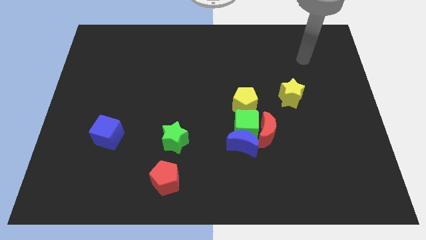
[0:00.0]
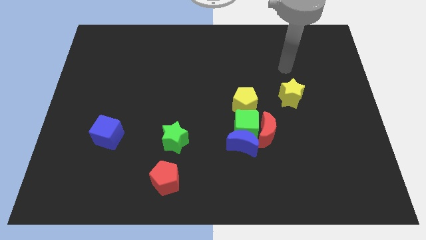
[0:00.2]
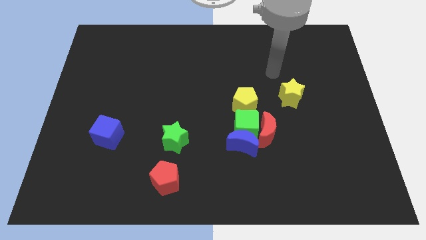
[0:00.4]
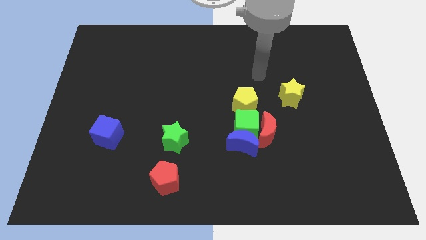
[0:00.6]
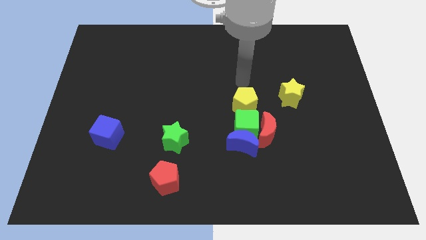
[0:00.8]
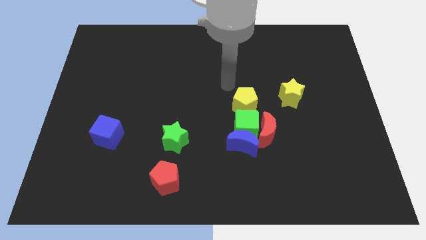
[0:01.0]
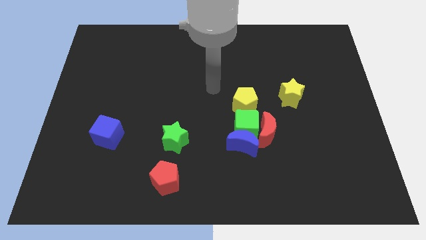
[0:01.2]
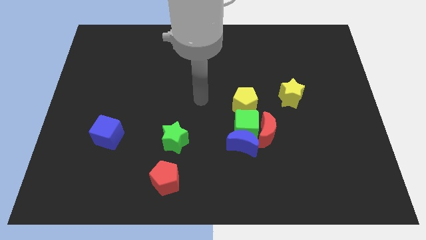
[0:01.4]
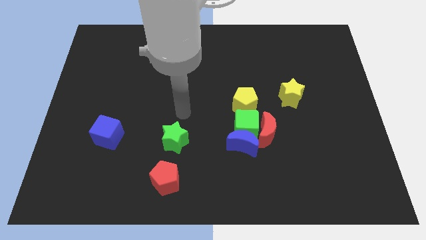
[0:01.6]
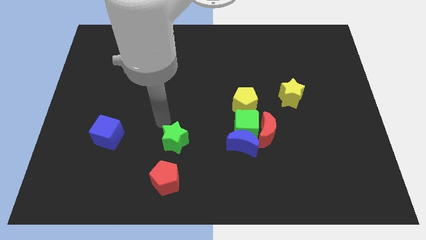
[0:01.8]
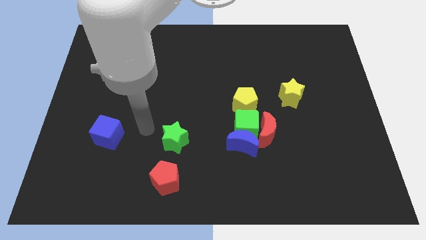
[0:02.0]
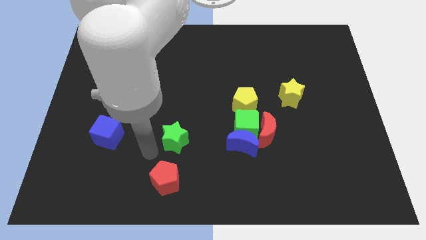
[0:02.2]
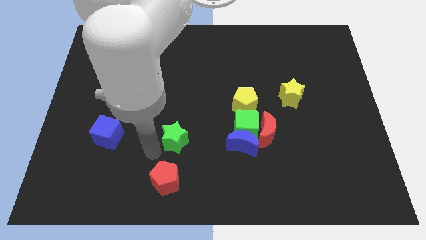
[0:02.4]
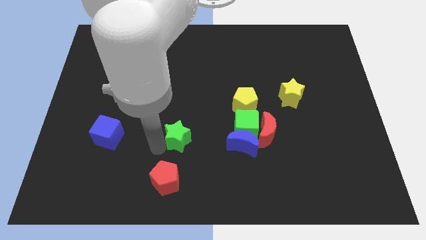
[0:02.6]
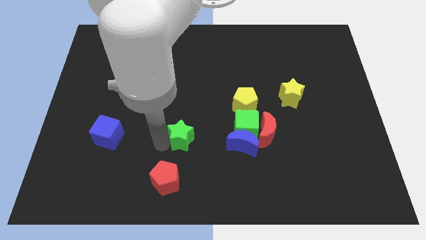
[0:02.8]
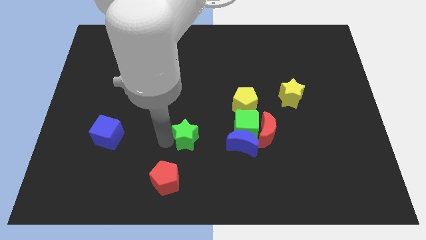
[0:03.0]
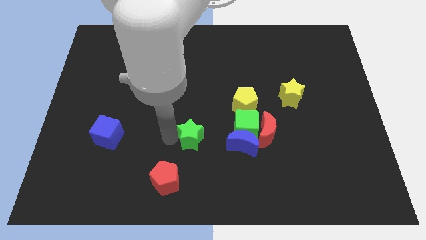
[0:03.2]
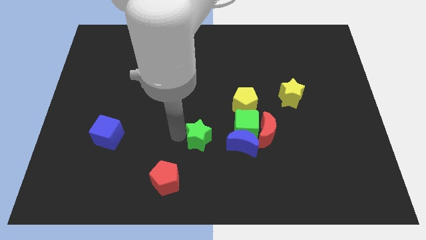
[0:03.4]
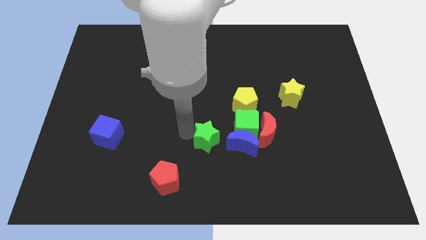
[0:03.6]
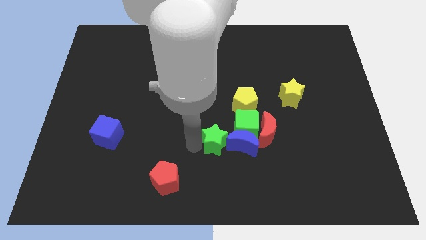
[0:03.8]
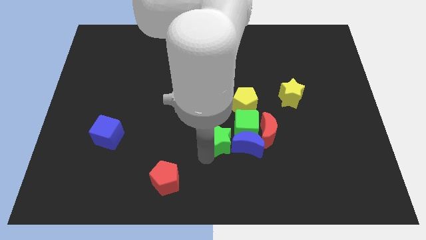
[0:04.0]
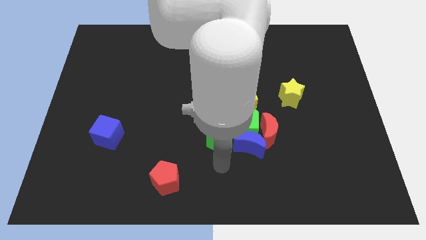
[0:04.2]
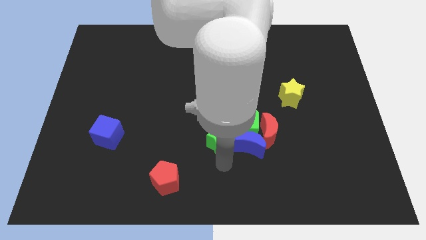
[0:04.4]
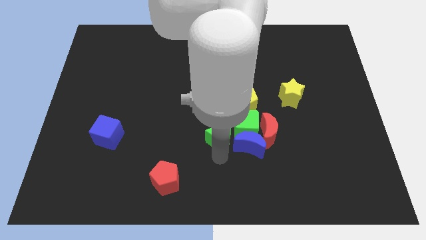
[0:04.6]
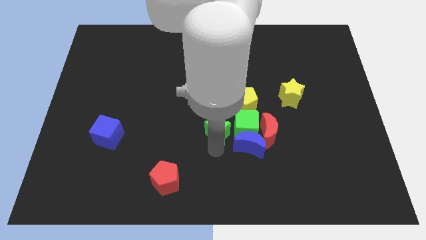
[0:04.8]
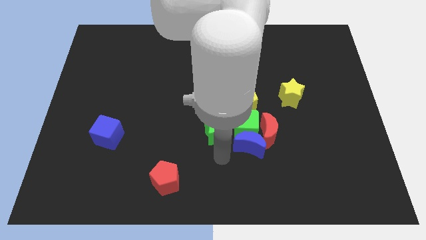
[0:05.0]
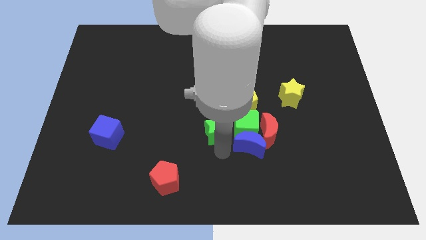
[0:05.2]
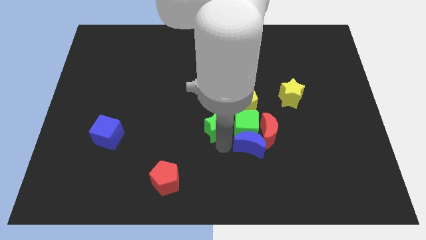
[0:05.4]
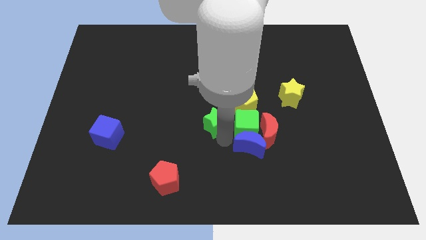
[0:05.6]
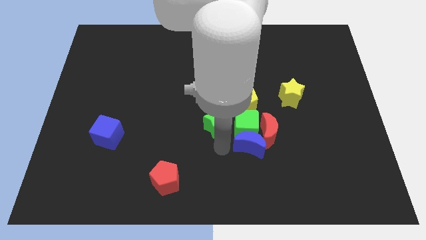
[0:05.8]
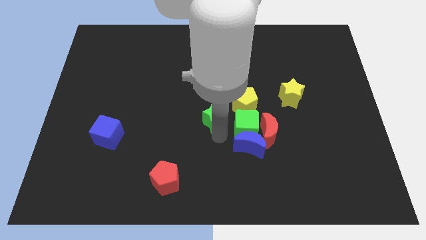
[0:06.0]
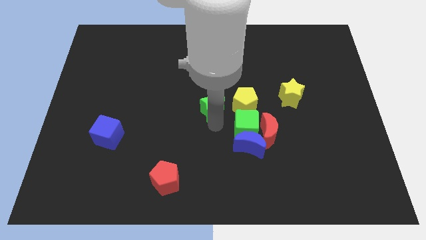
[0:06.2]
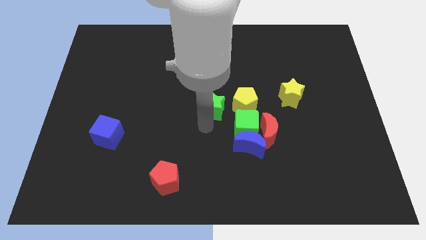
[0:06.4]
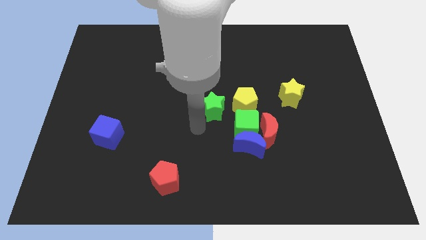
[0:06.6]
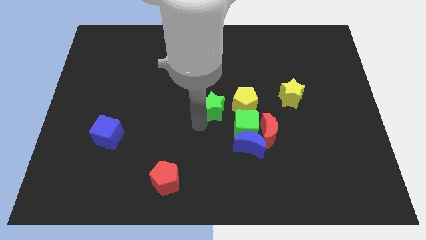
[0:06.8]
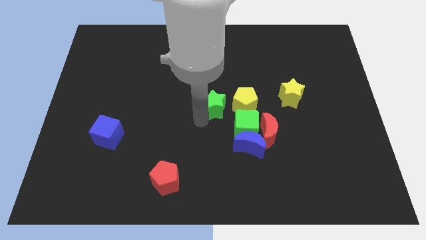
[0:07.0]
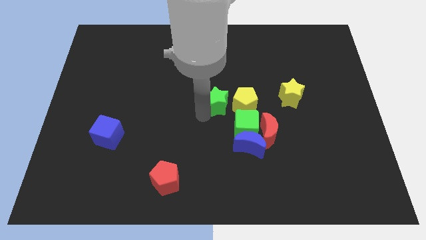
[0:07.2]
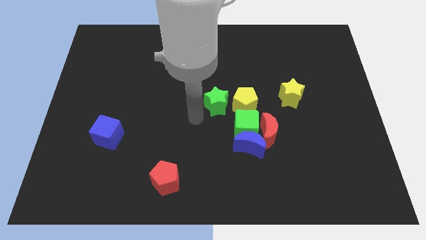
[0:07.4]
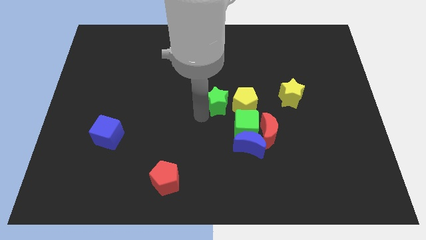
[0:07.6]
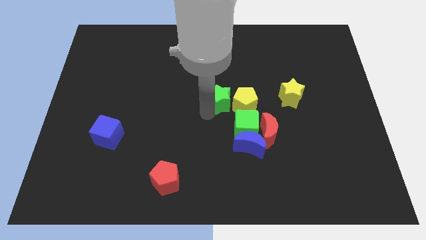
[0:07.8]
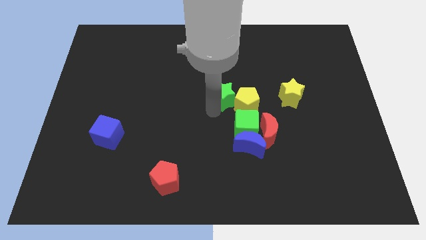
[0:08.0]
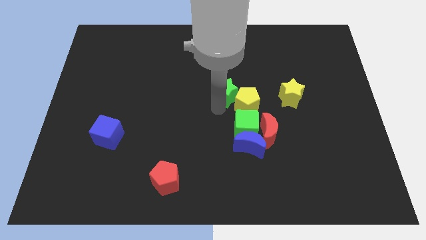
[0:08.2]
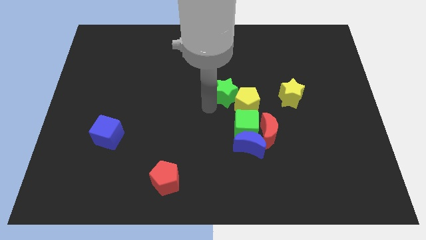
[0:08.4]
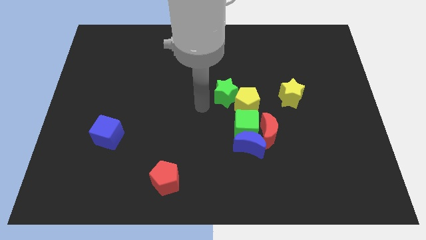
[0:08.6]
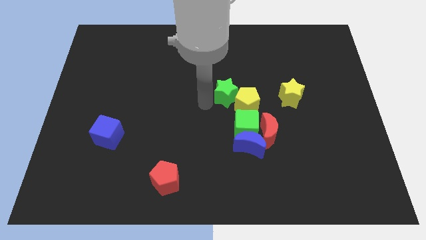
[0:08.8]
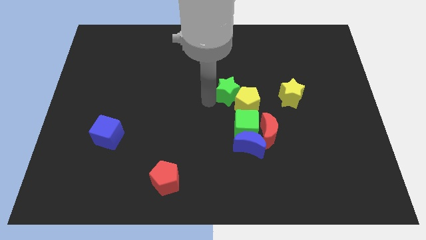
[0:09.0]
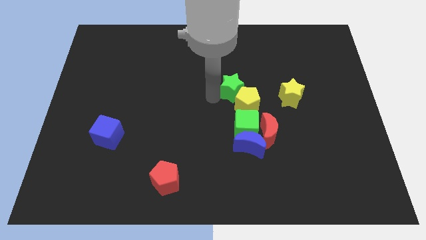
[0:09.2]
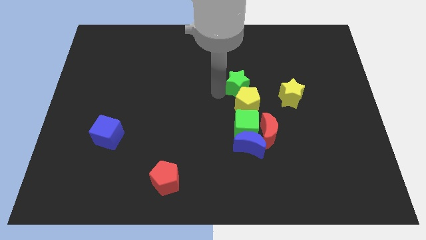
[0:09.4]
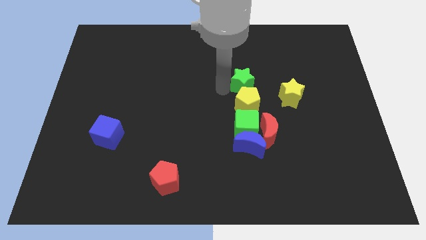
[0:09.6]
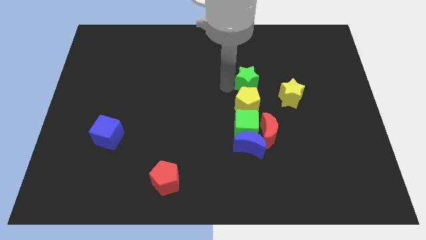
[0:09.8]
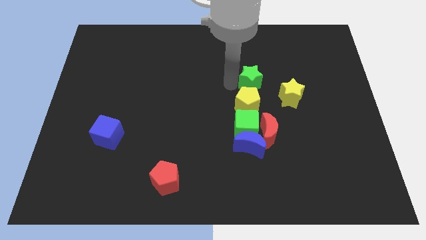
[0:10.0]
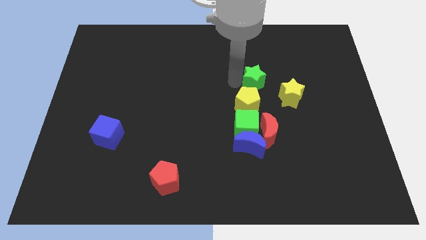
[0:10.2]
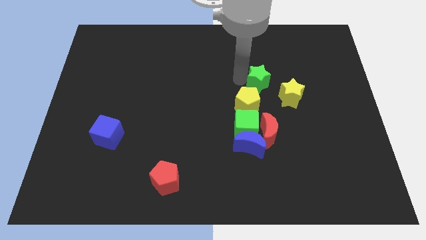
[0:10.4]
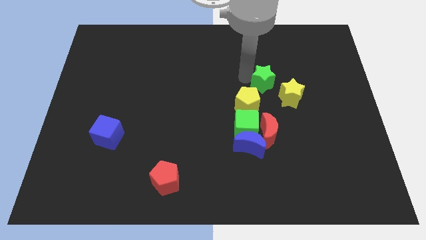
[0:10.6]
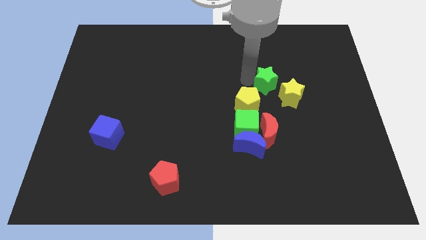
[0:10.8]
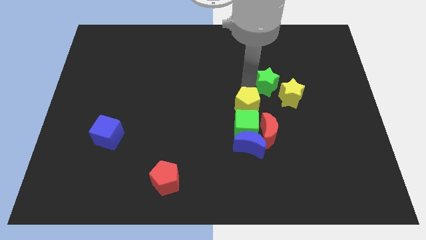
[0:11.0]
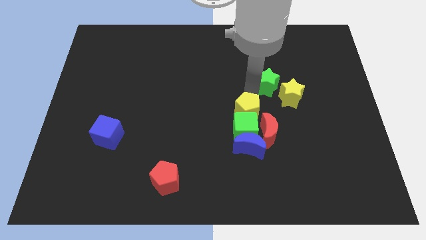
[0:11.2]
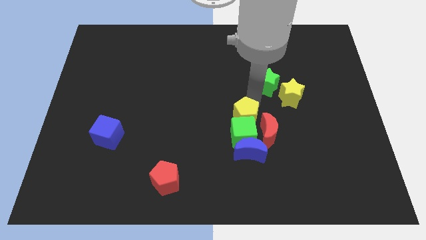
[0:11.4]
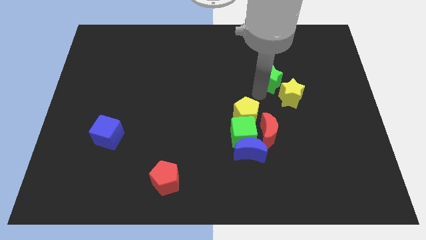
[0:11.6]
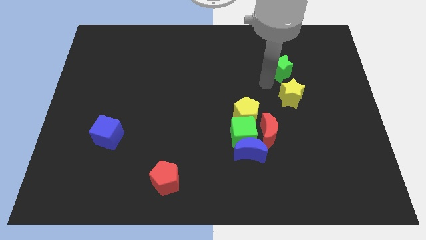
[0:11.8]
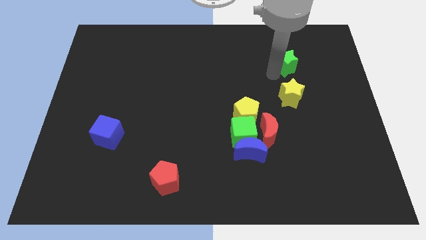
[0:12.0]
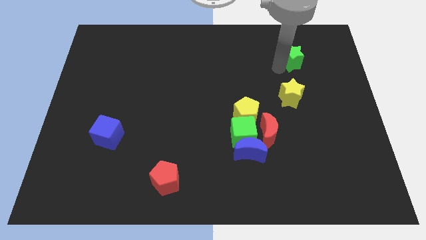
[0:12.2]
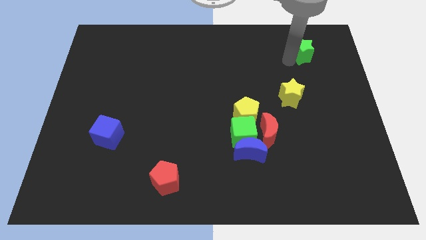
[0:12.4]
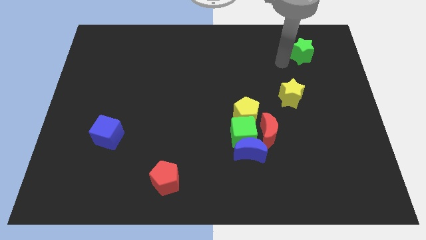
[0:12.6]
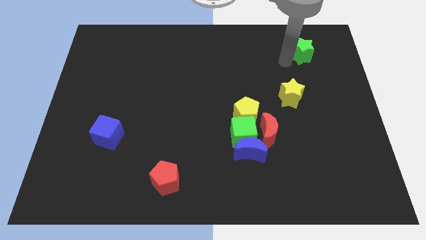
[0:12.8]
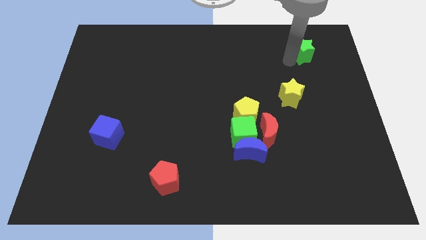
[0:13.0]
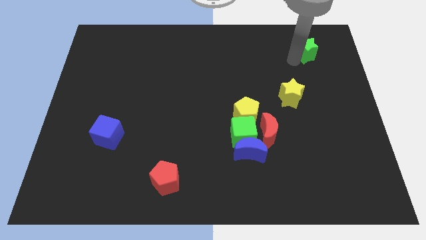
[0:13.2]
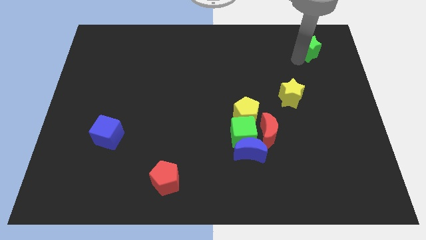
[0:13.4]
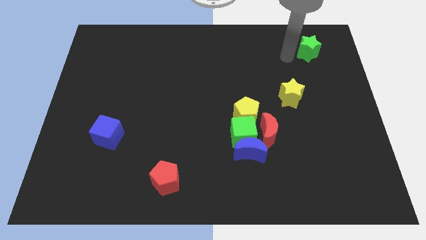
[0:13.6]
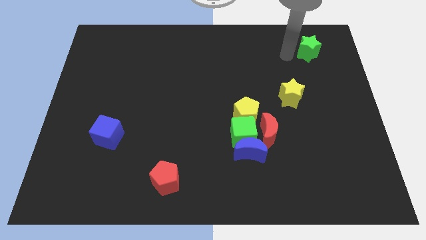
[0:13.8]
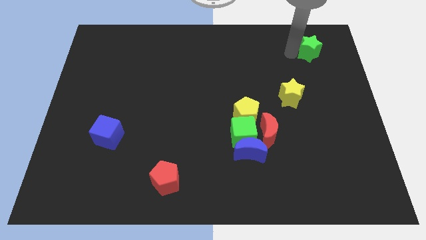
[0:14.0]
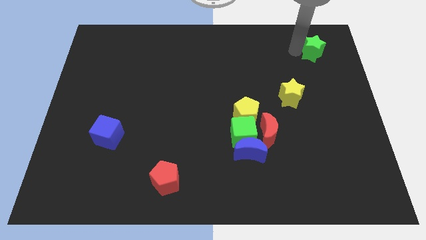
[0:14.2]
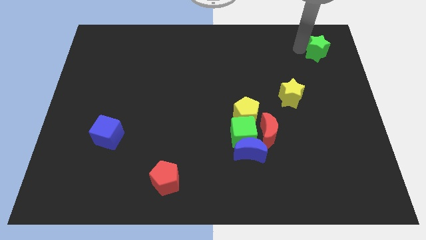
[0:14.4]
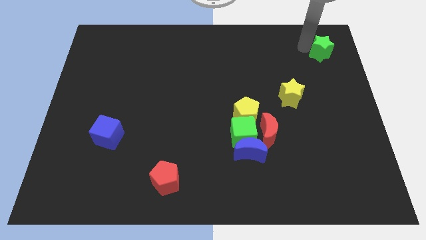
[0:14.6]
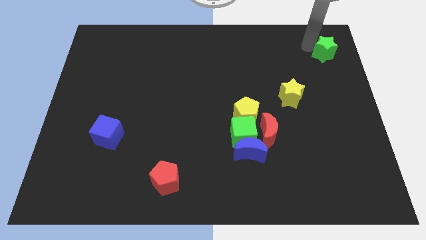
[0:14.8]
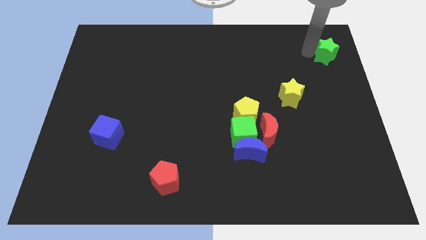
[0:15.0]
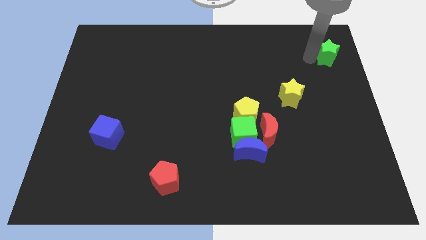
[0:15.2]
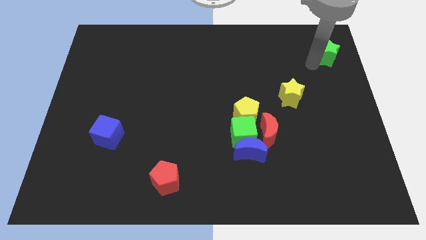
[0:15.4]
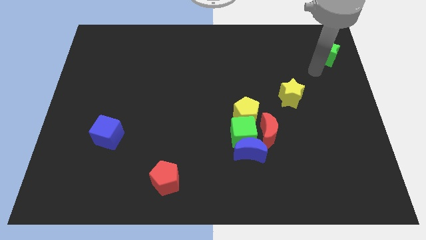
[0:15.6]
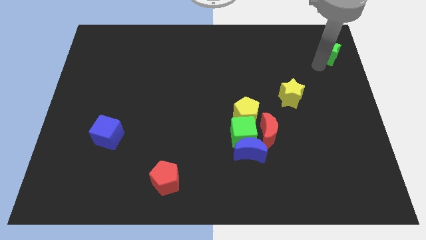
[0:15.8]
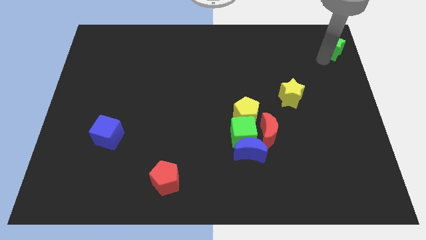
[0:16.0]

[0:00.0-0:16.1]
slide the green star to the upper right corner
